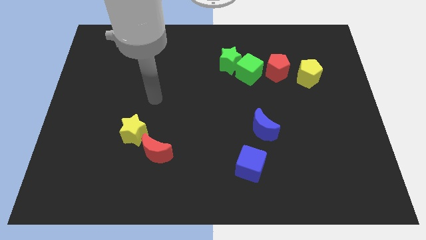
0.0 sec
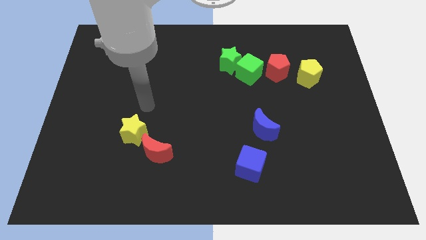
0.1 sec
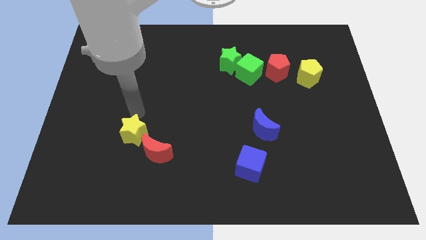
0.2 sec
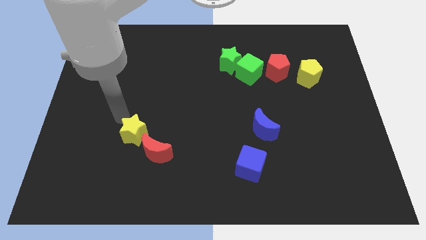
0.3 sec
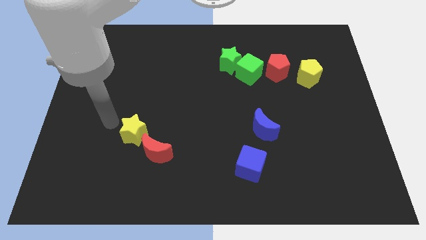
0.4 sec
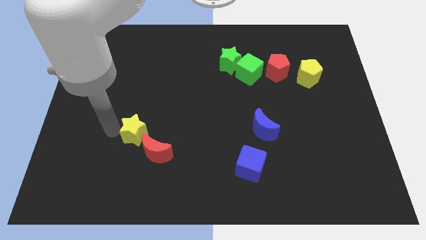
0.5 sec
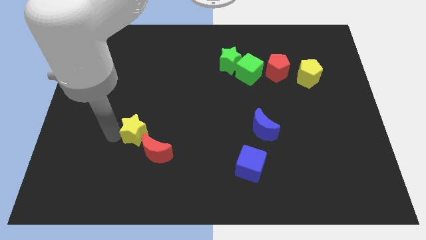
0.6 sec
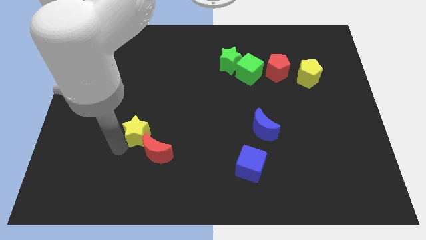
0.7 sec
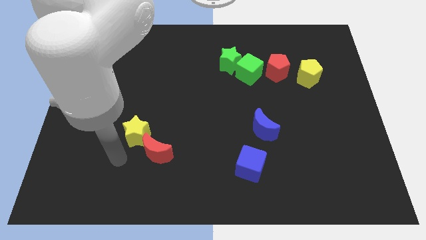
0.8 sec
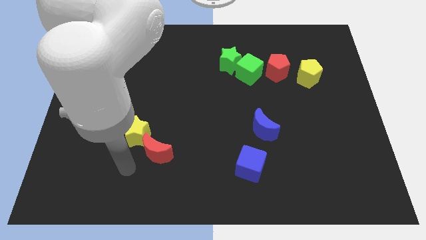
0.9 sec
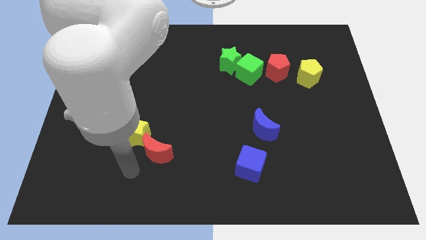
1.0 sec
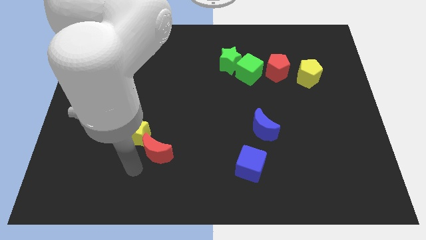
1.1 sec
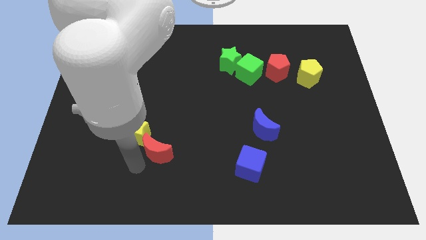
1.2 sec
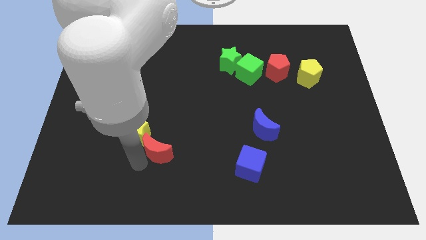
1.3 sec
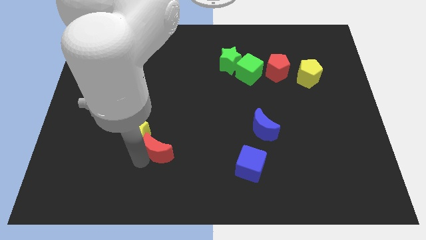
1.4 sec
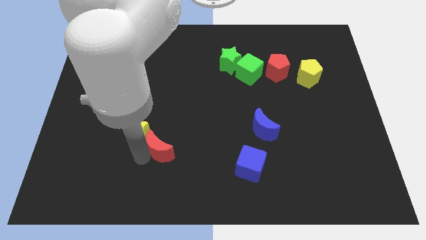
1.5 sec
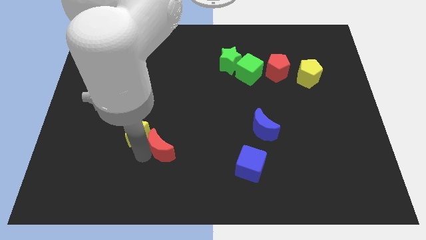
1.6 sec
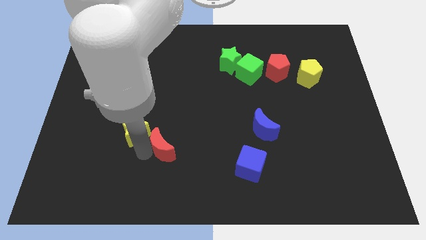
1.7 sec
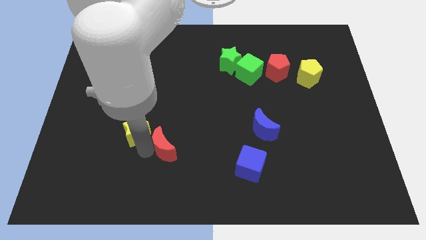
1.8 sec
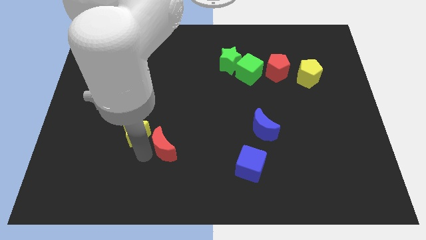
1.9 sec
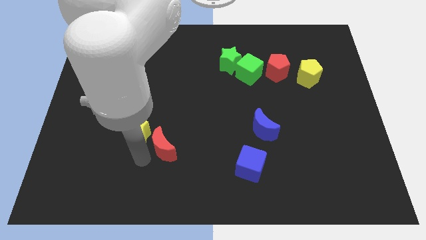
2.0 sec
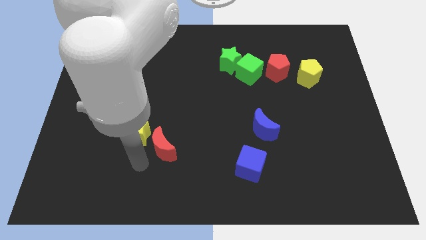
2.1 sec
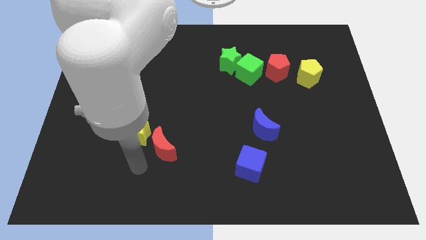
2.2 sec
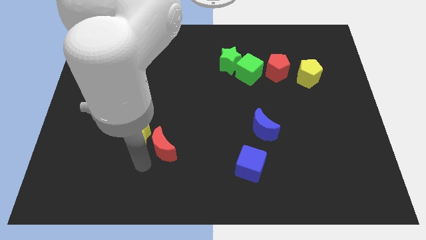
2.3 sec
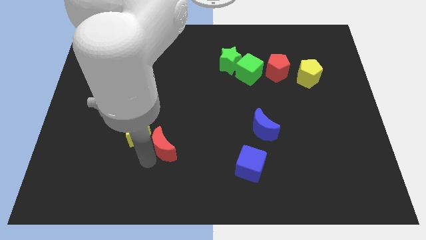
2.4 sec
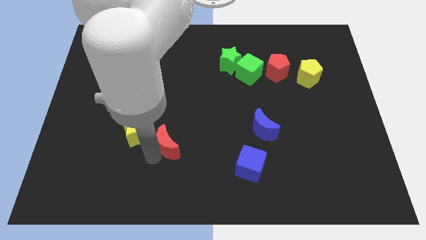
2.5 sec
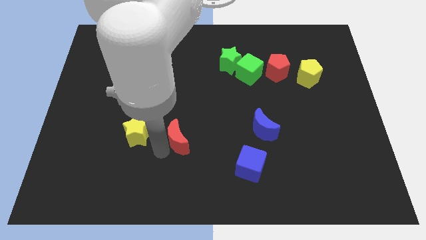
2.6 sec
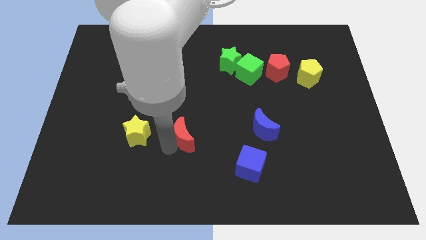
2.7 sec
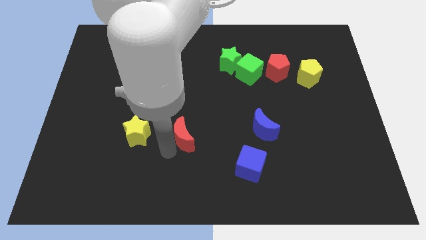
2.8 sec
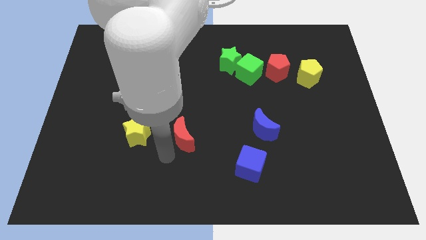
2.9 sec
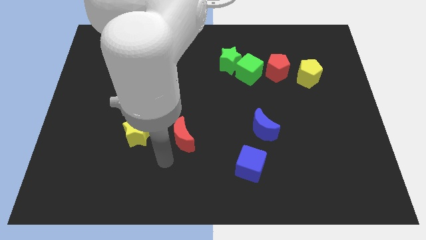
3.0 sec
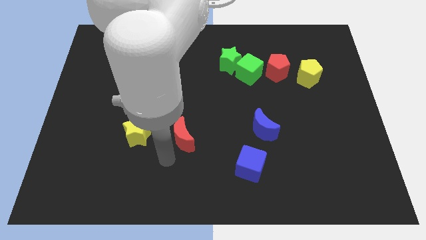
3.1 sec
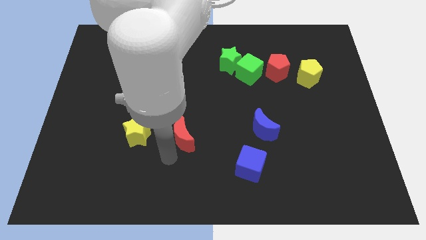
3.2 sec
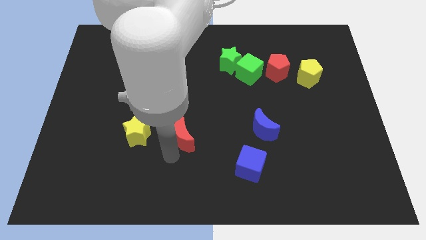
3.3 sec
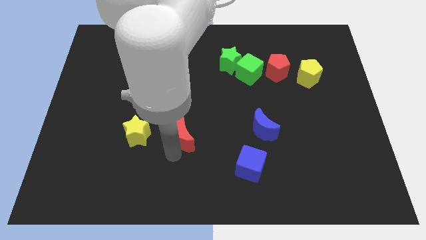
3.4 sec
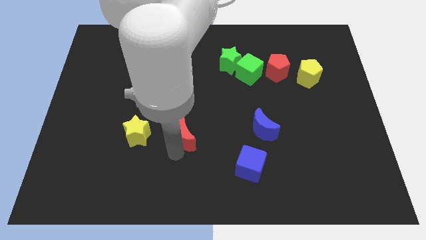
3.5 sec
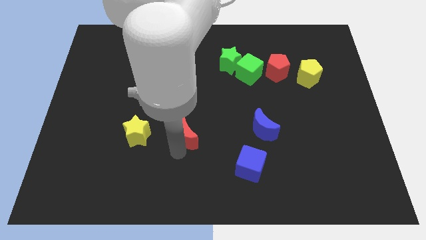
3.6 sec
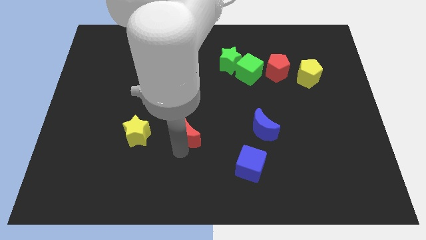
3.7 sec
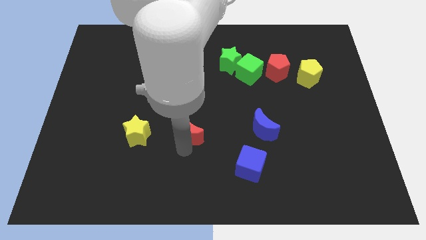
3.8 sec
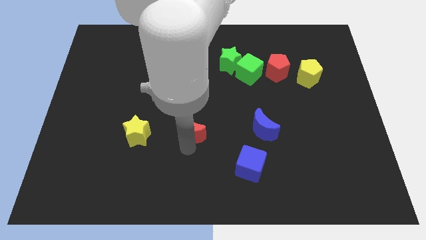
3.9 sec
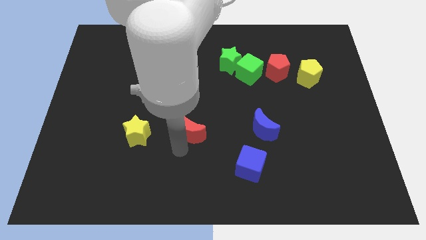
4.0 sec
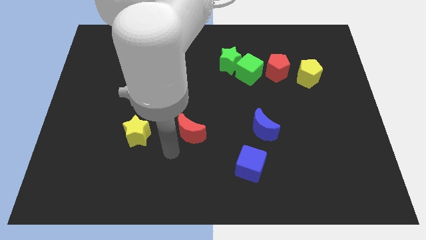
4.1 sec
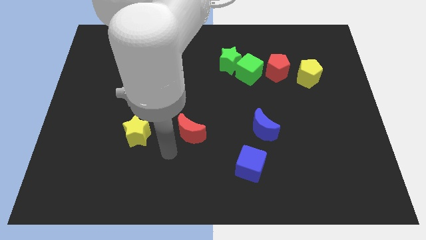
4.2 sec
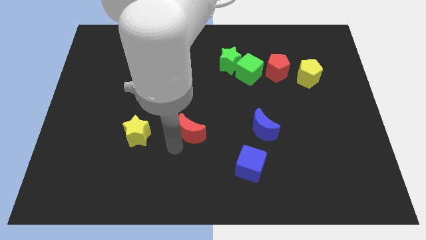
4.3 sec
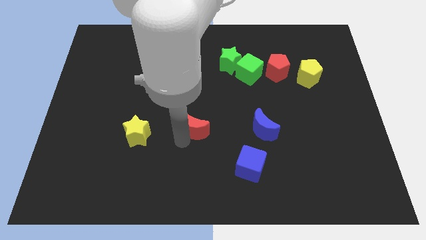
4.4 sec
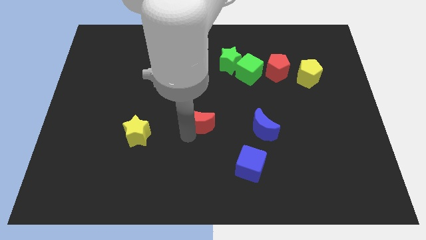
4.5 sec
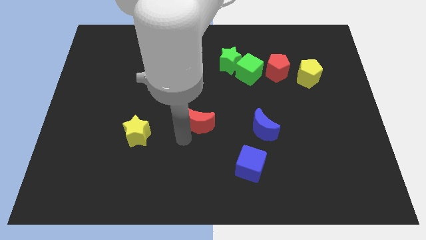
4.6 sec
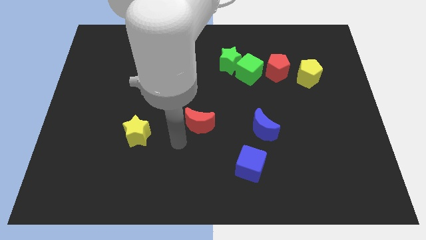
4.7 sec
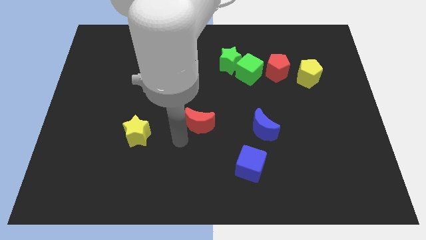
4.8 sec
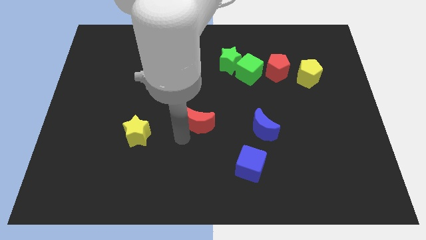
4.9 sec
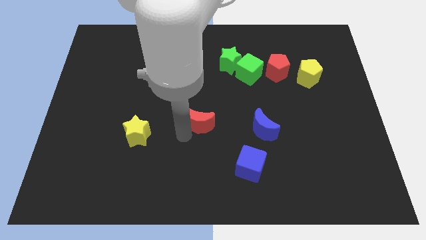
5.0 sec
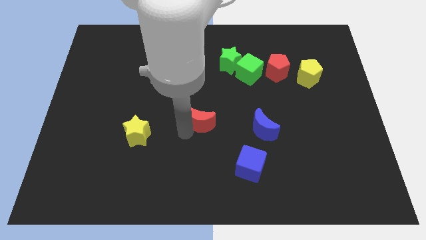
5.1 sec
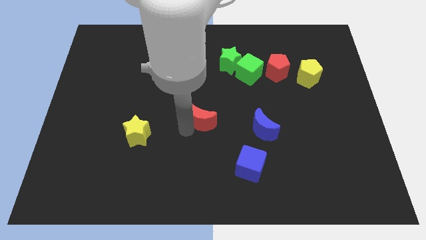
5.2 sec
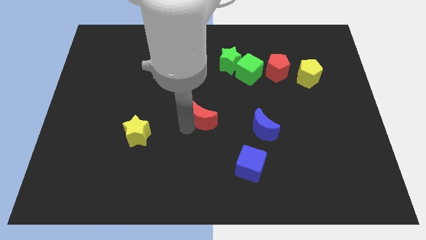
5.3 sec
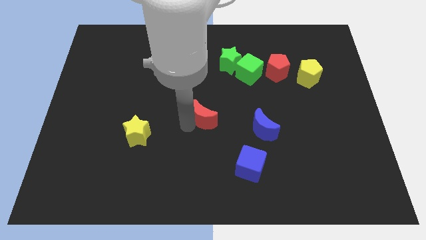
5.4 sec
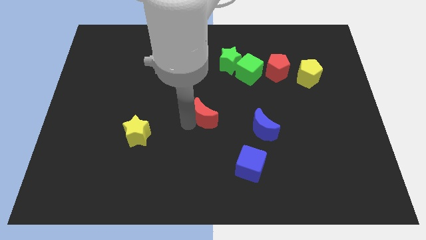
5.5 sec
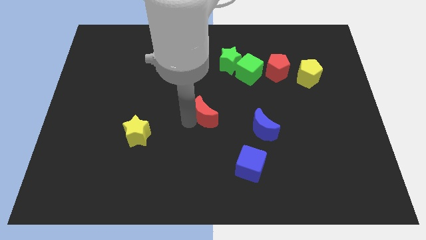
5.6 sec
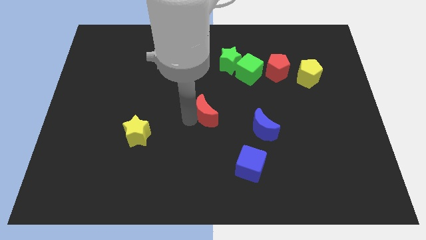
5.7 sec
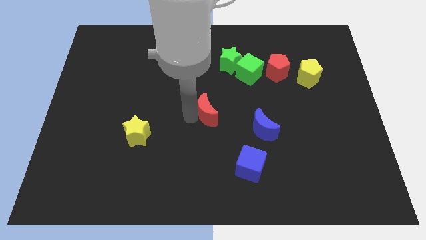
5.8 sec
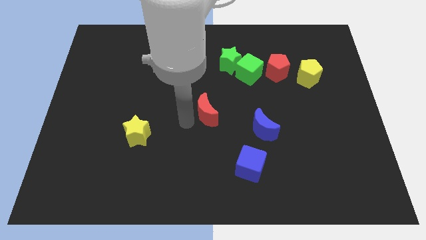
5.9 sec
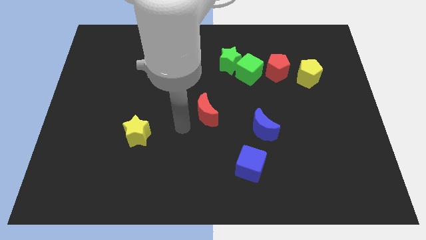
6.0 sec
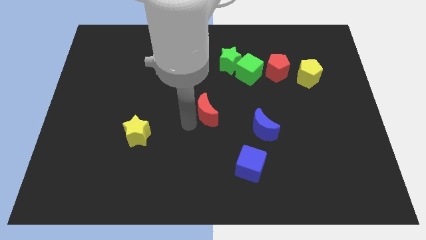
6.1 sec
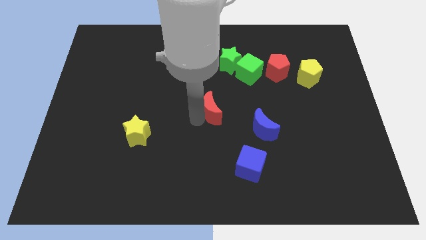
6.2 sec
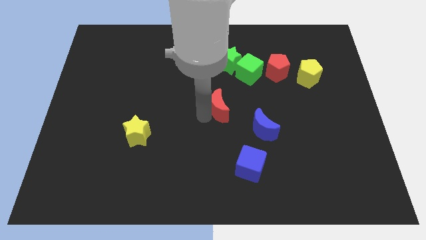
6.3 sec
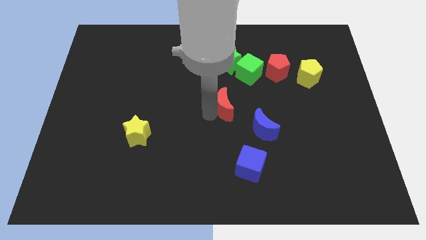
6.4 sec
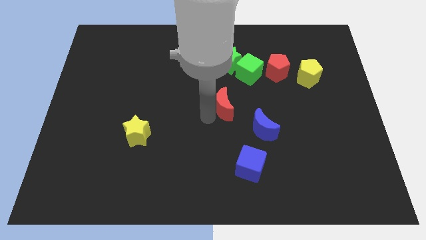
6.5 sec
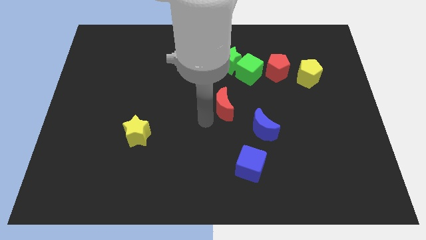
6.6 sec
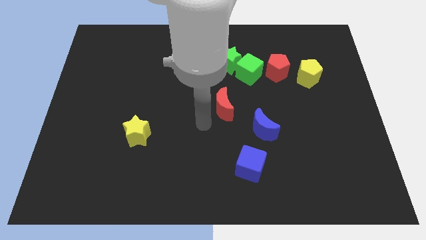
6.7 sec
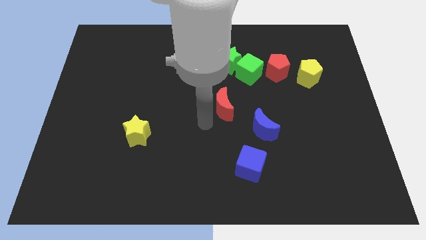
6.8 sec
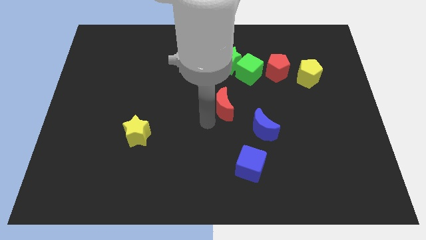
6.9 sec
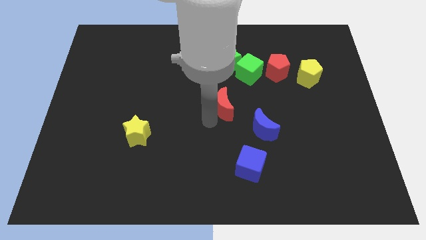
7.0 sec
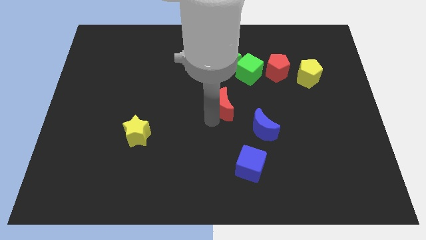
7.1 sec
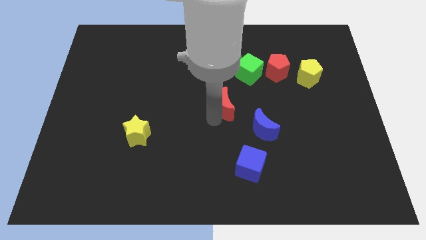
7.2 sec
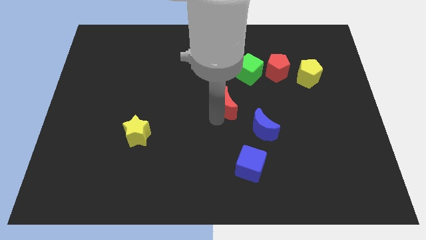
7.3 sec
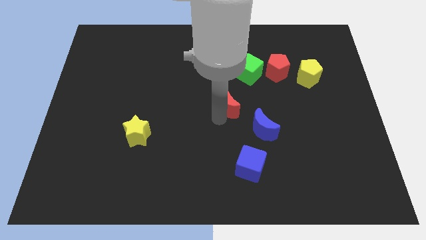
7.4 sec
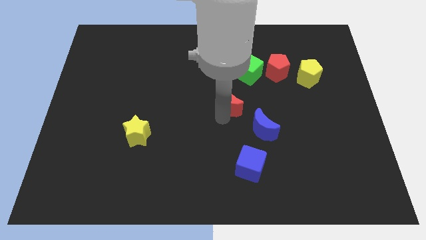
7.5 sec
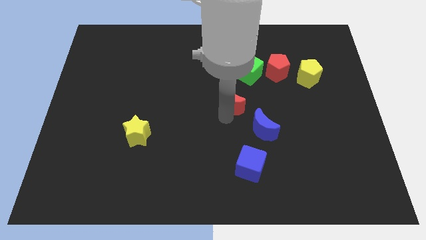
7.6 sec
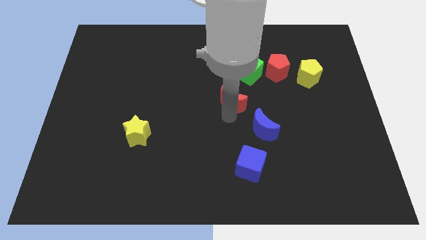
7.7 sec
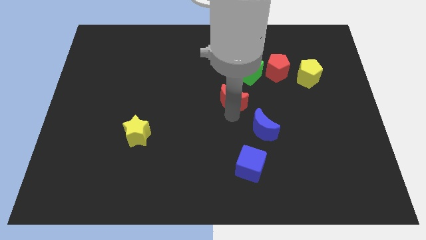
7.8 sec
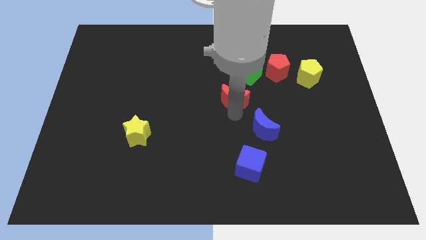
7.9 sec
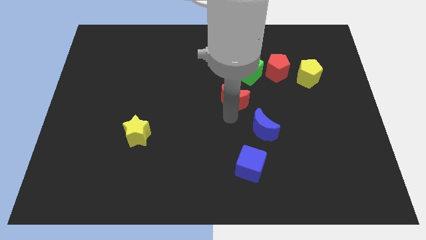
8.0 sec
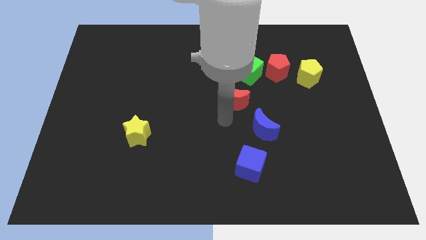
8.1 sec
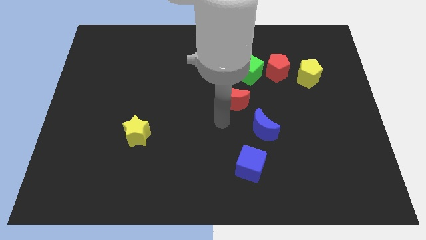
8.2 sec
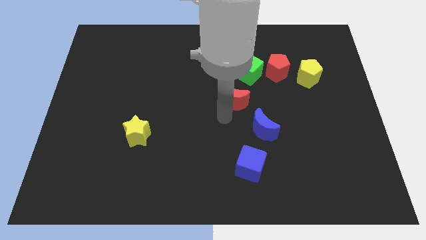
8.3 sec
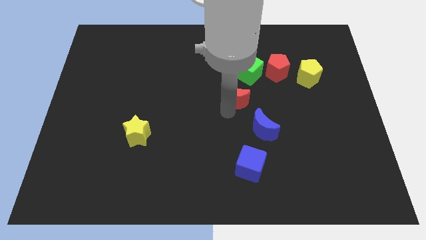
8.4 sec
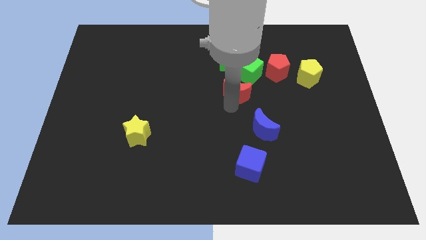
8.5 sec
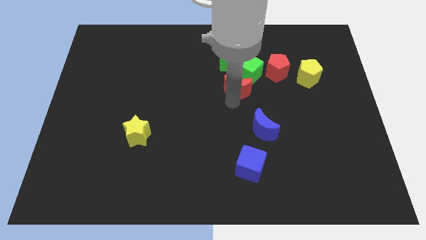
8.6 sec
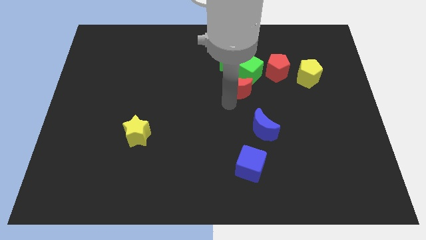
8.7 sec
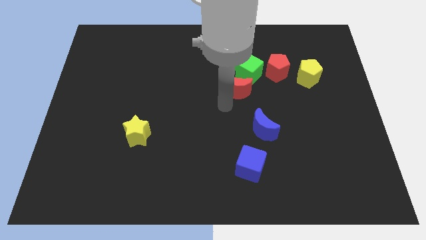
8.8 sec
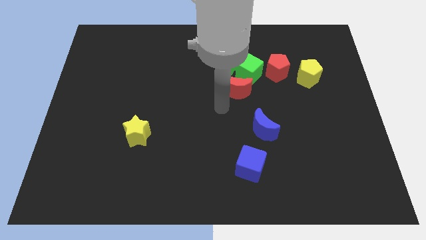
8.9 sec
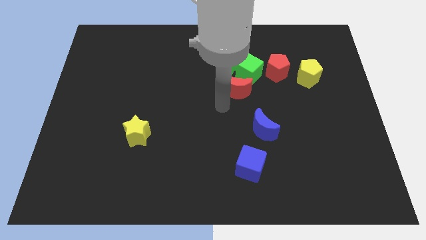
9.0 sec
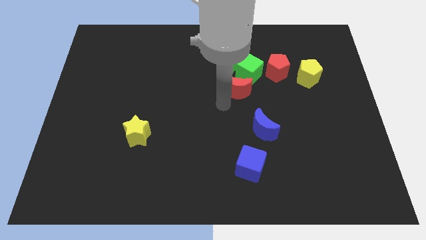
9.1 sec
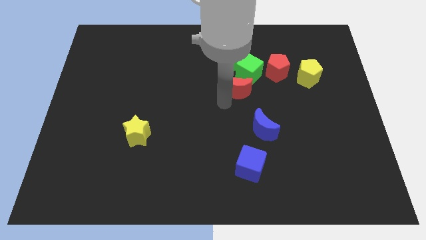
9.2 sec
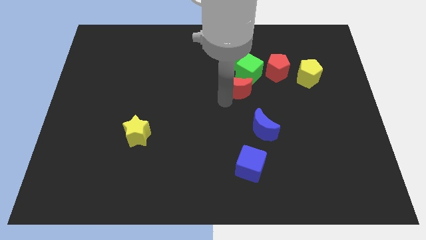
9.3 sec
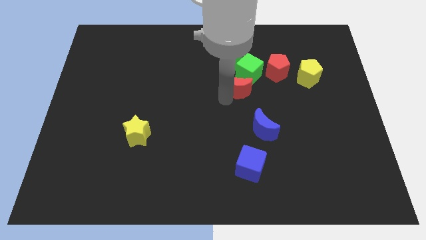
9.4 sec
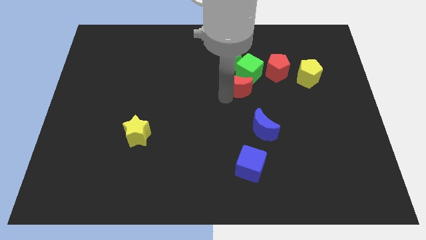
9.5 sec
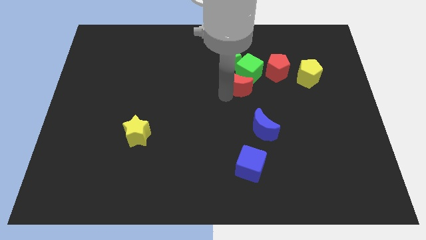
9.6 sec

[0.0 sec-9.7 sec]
push the red moon next to the green cube
